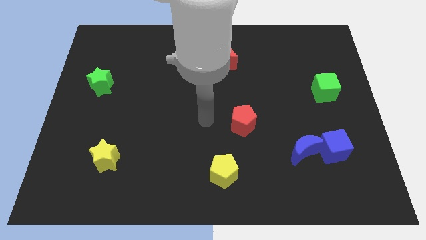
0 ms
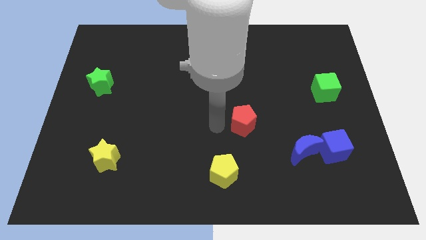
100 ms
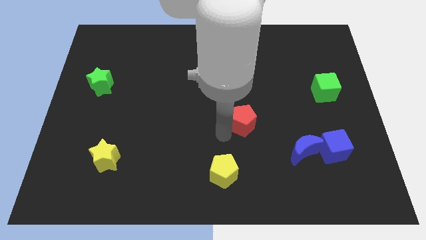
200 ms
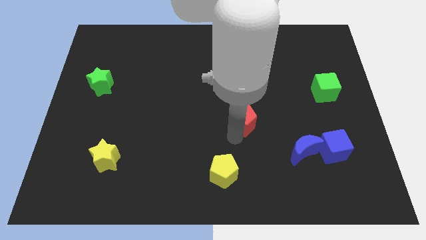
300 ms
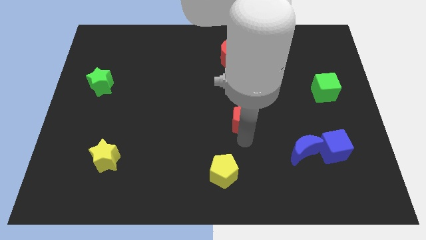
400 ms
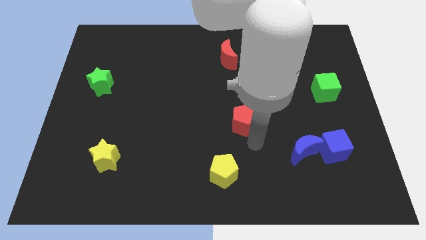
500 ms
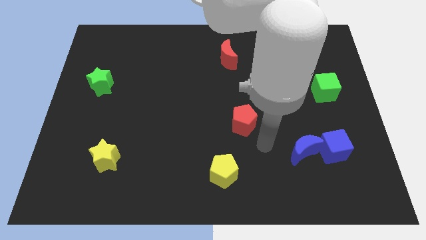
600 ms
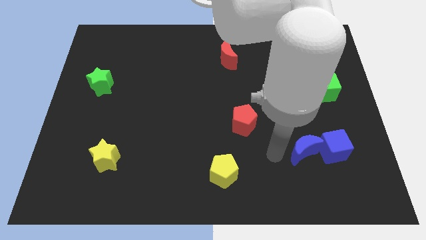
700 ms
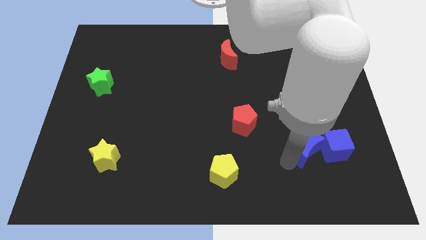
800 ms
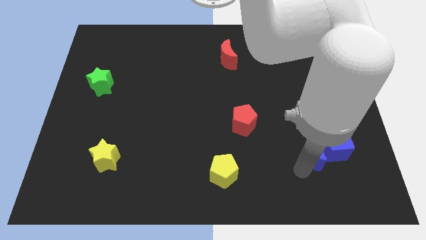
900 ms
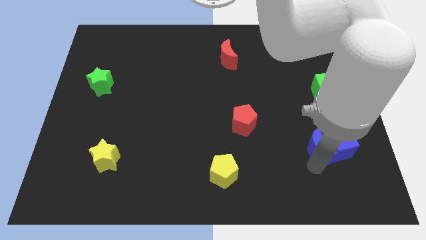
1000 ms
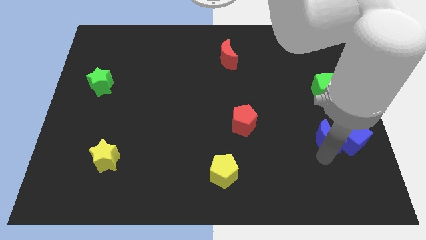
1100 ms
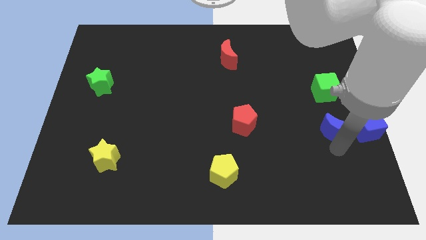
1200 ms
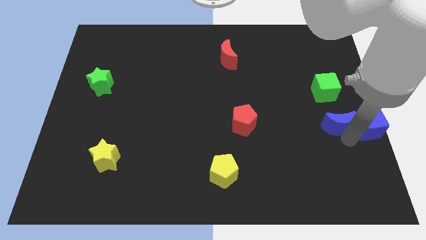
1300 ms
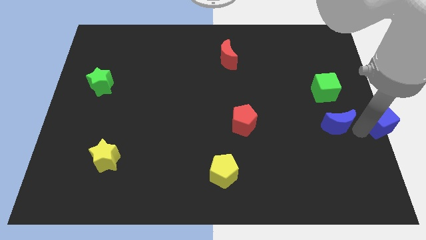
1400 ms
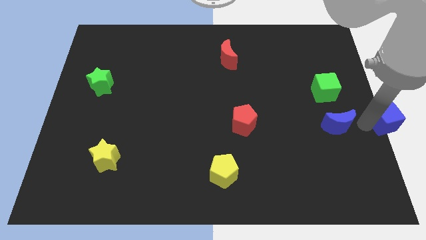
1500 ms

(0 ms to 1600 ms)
pull the blue moon apart from the blue cube

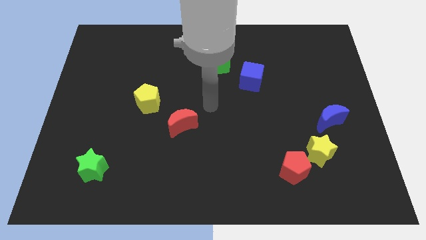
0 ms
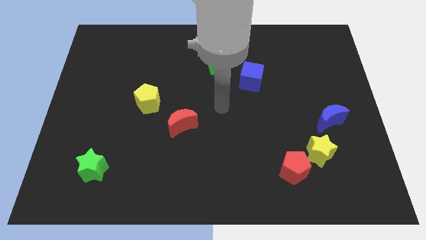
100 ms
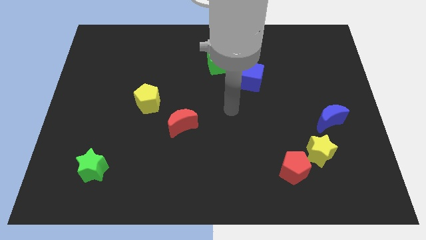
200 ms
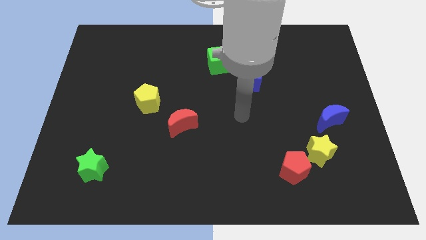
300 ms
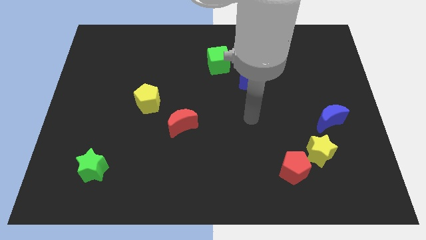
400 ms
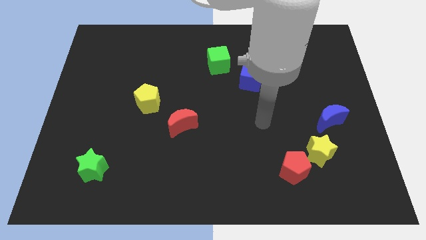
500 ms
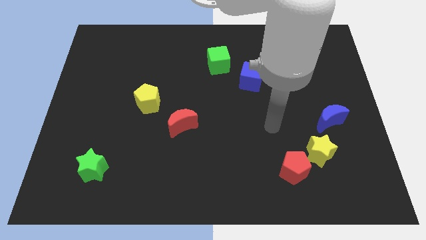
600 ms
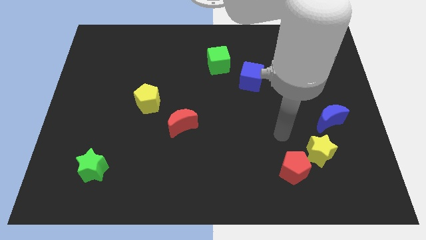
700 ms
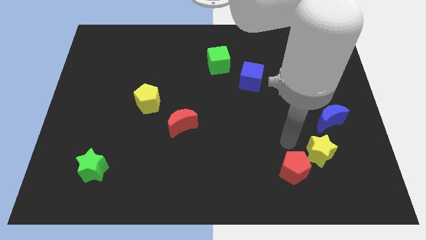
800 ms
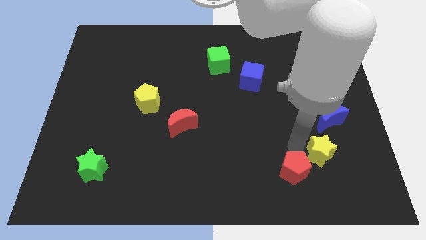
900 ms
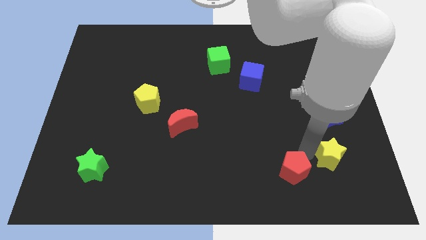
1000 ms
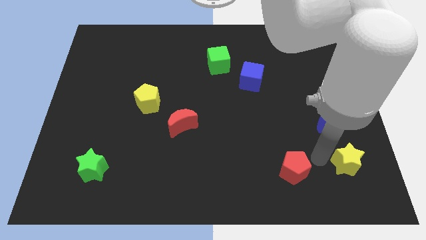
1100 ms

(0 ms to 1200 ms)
pull the red pentagon apart from the yellow star

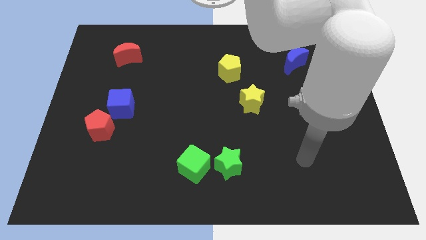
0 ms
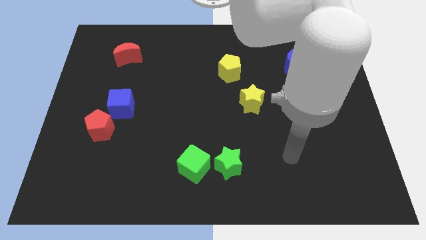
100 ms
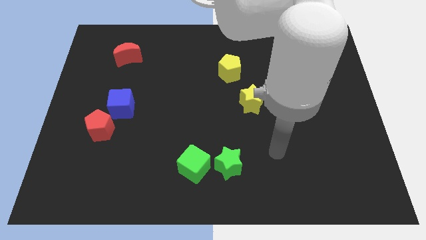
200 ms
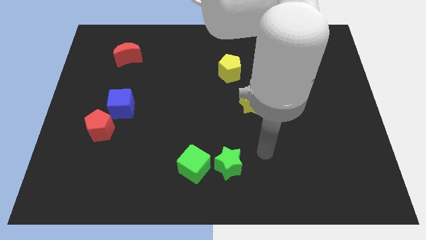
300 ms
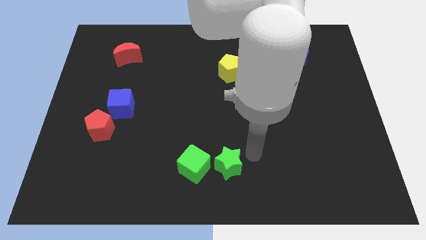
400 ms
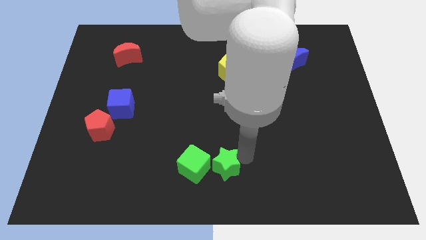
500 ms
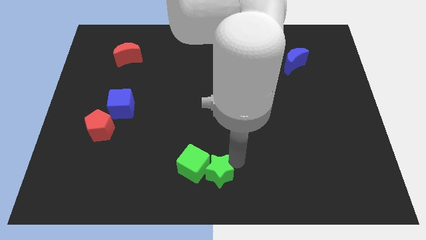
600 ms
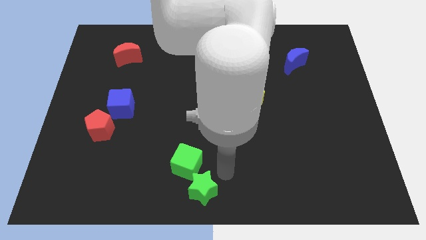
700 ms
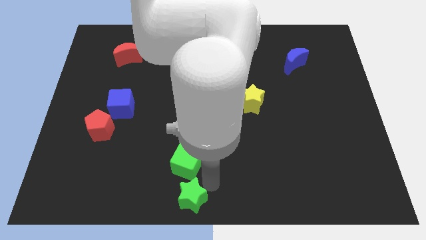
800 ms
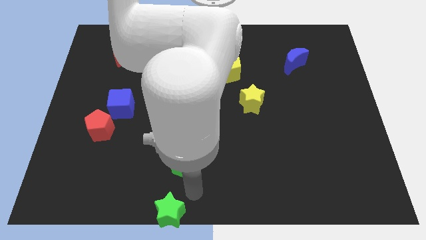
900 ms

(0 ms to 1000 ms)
pull the green cube apart from the green star

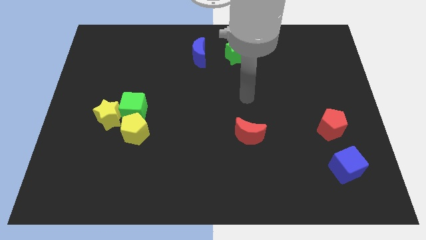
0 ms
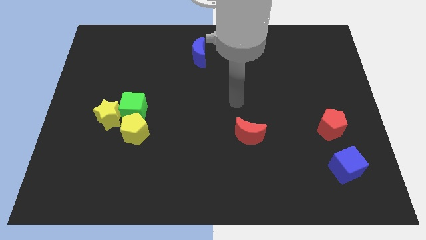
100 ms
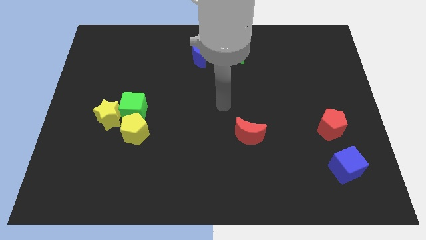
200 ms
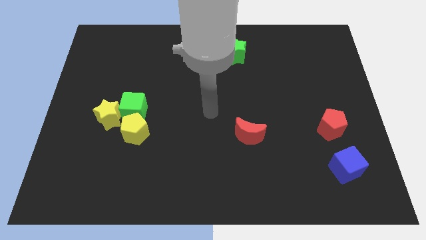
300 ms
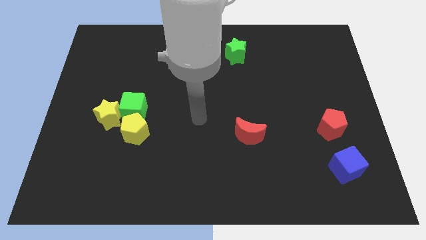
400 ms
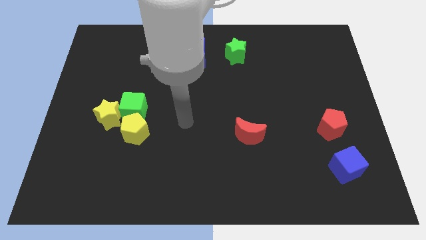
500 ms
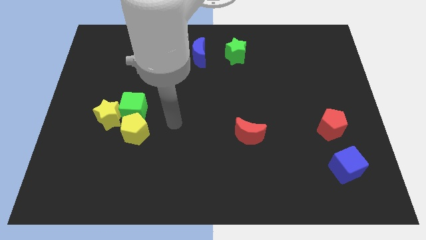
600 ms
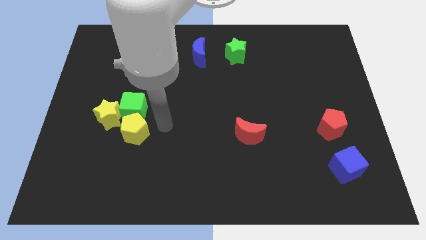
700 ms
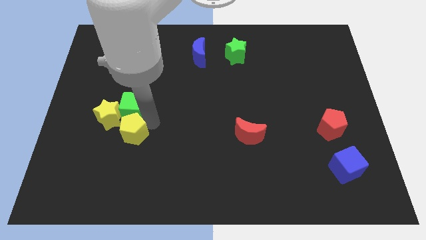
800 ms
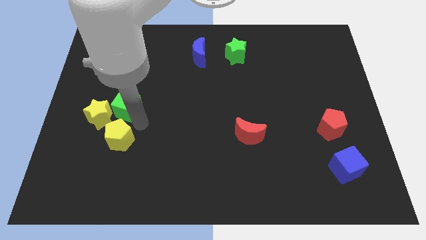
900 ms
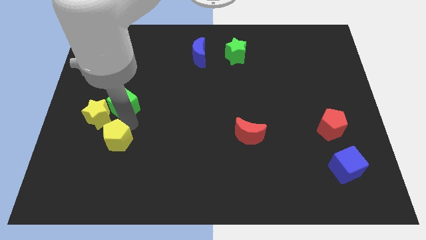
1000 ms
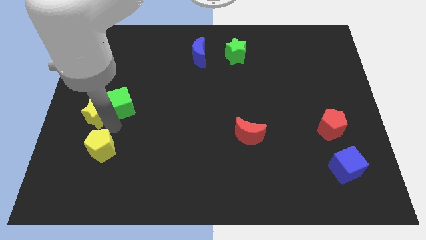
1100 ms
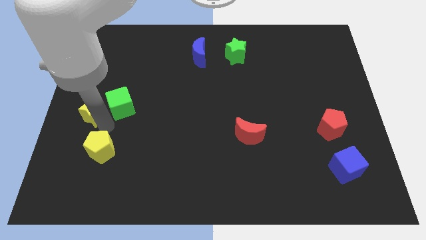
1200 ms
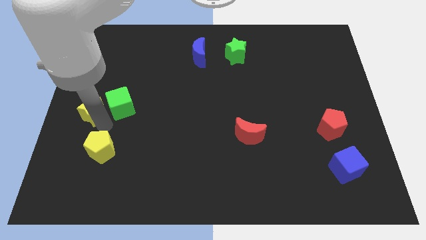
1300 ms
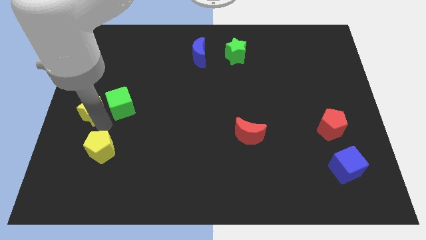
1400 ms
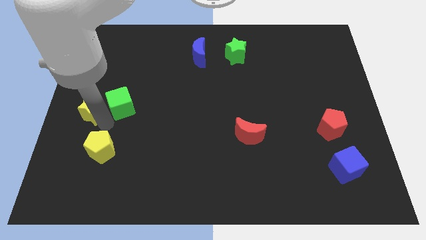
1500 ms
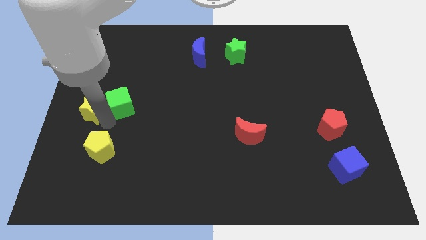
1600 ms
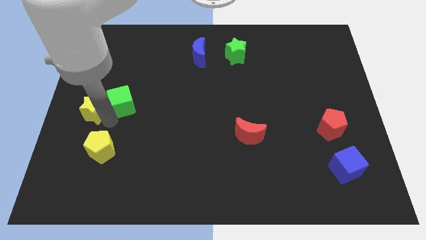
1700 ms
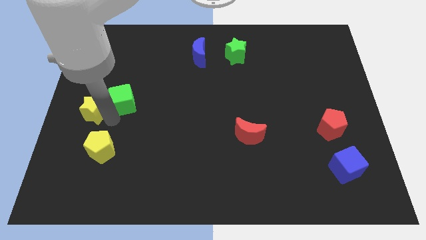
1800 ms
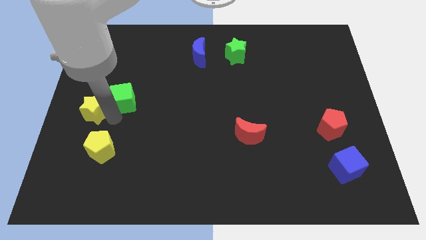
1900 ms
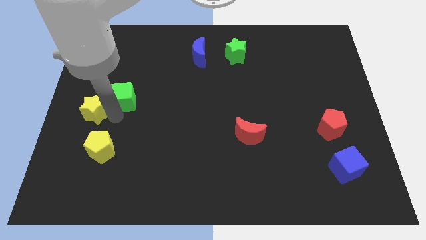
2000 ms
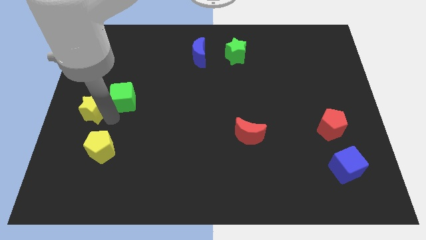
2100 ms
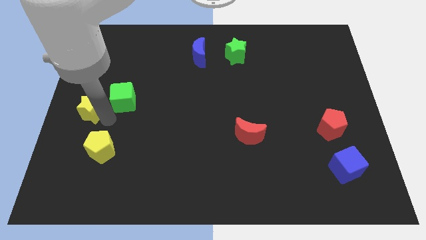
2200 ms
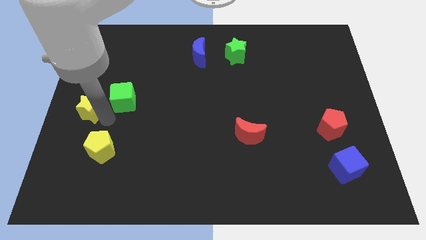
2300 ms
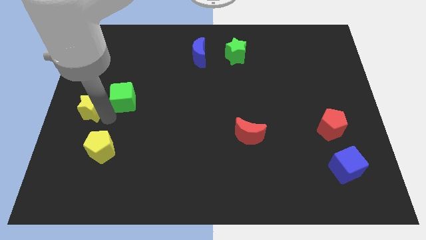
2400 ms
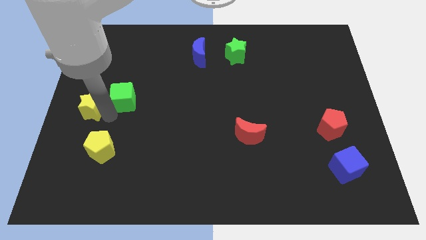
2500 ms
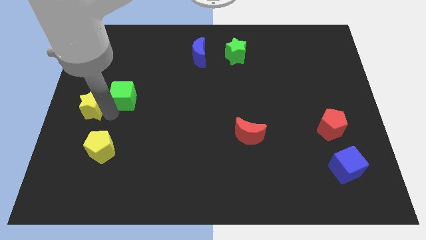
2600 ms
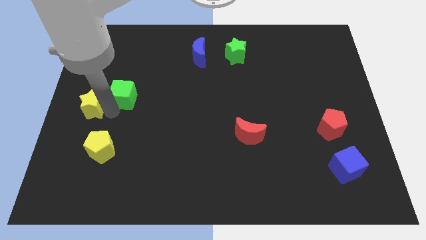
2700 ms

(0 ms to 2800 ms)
pull the green cube apart from the yellow star and yellow pentagon

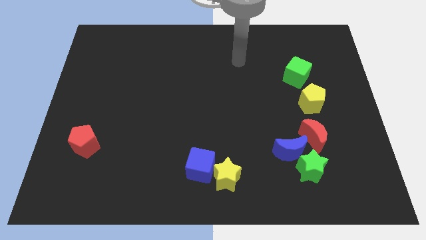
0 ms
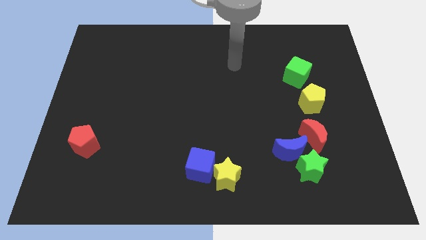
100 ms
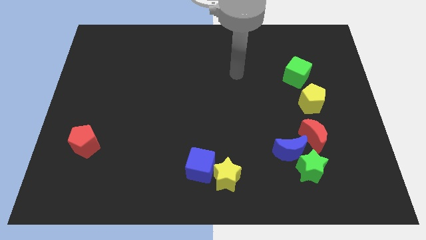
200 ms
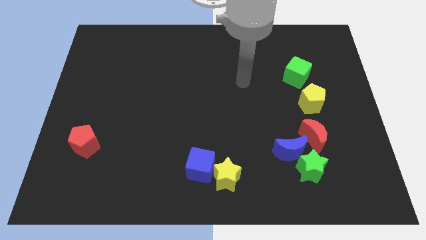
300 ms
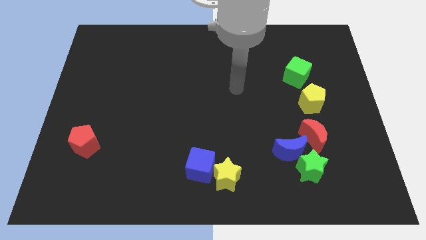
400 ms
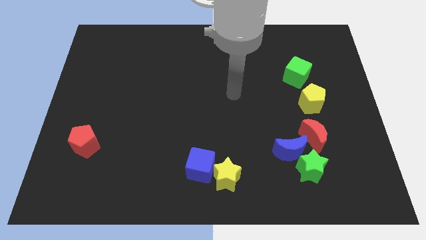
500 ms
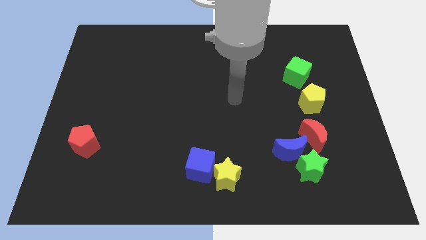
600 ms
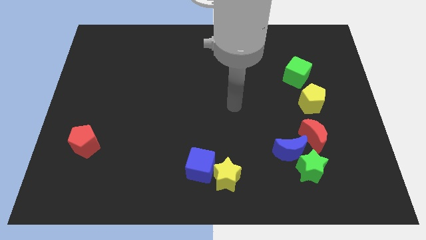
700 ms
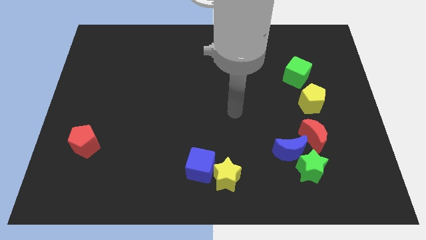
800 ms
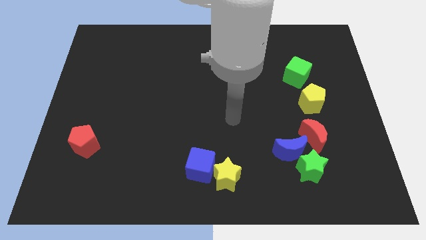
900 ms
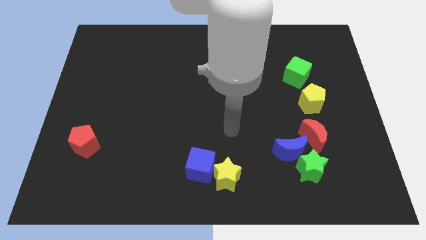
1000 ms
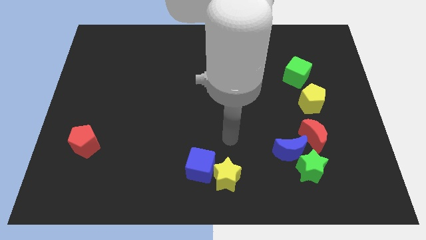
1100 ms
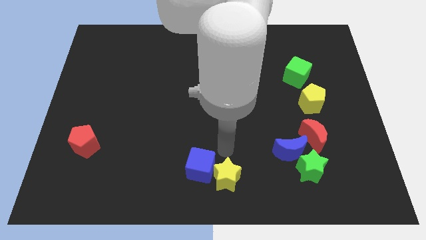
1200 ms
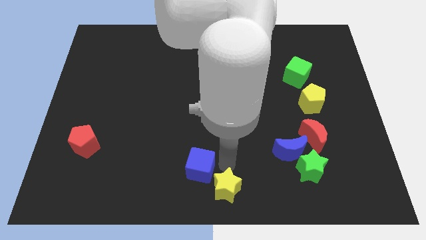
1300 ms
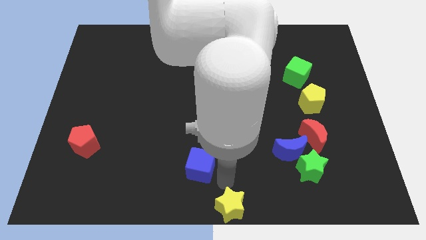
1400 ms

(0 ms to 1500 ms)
separate the blue cube from the yellow star

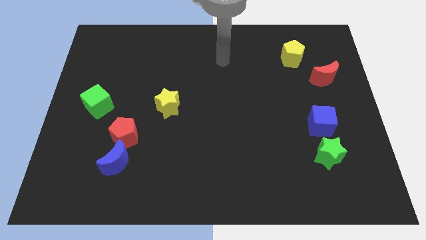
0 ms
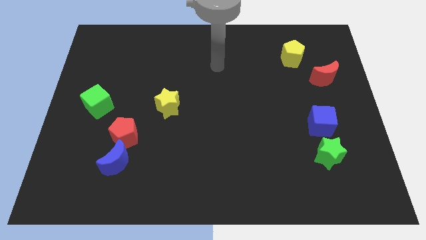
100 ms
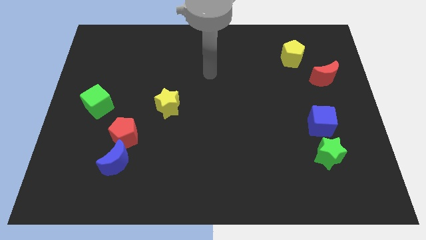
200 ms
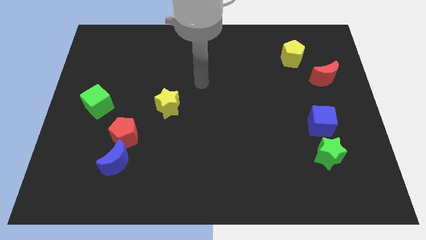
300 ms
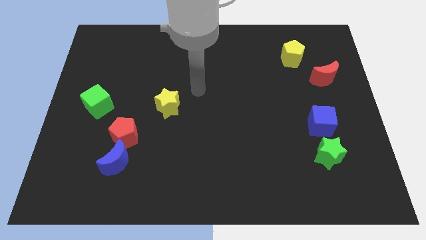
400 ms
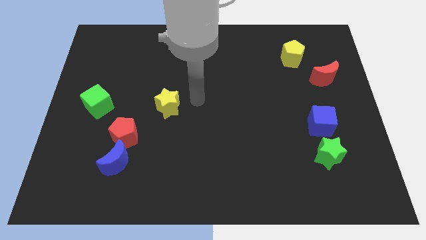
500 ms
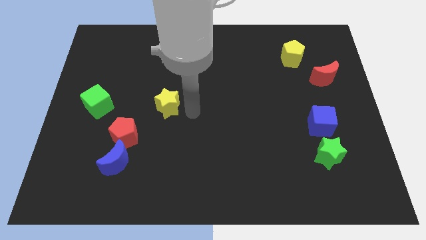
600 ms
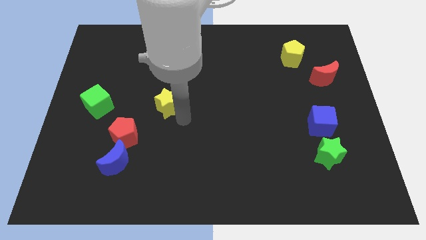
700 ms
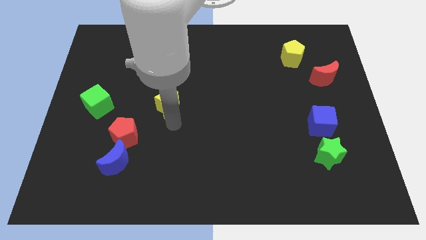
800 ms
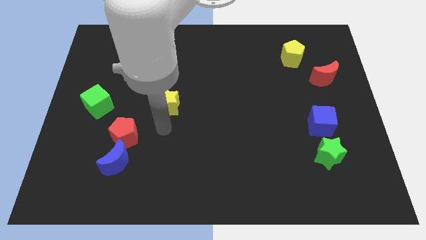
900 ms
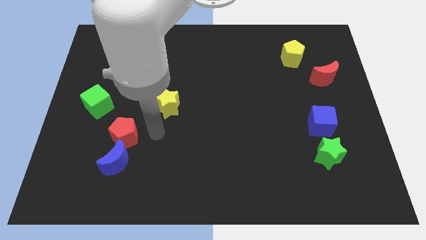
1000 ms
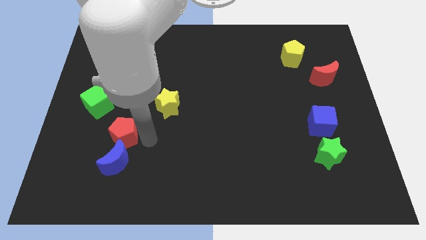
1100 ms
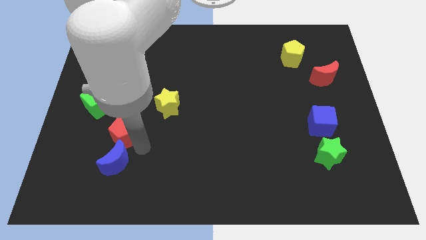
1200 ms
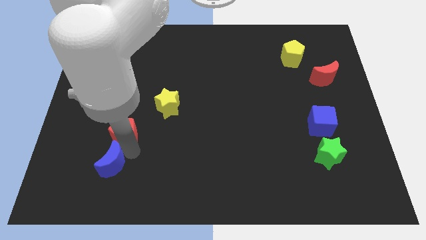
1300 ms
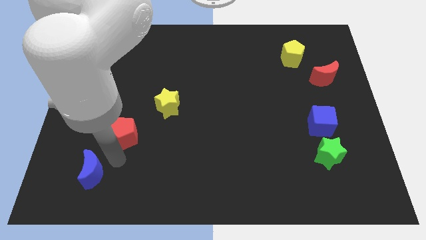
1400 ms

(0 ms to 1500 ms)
pull the red pentagon apart from the blue moon
